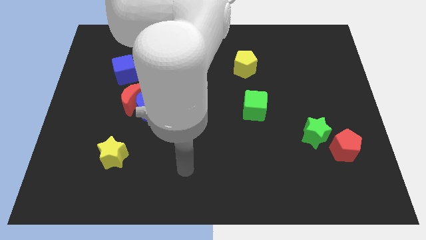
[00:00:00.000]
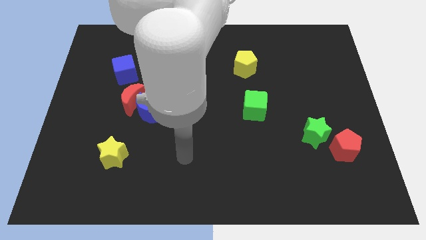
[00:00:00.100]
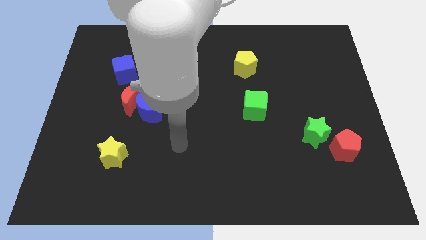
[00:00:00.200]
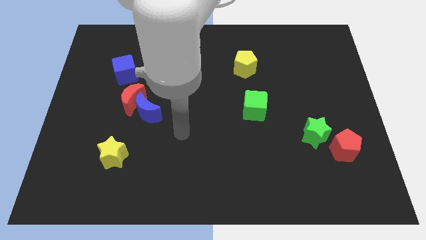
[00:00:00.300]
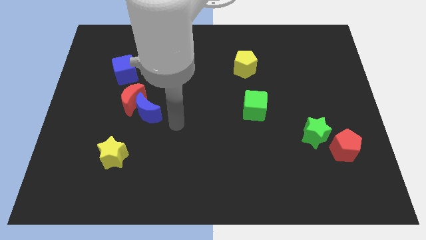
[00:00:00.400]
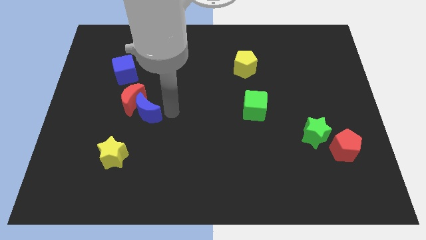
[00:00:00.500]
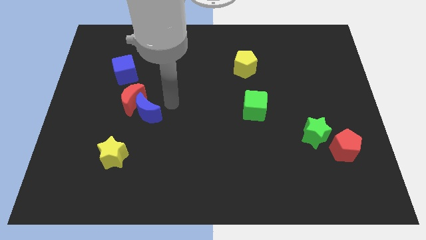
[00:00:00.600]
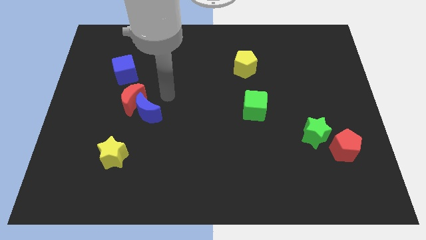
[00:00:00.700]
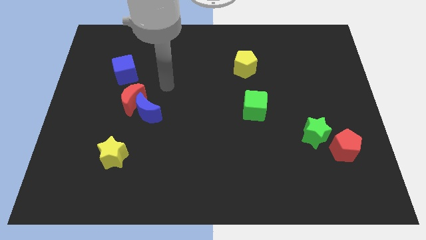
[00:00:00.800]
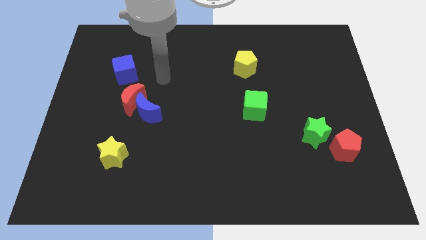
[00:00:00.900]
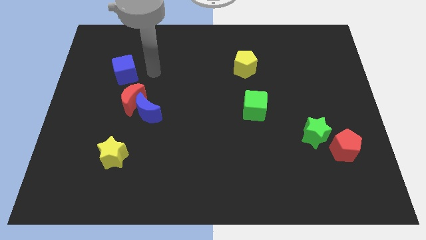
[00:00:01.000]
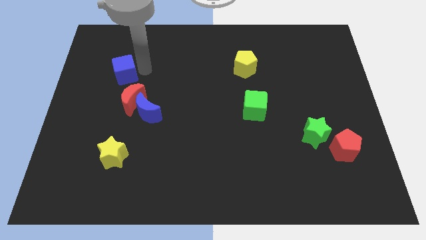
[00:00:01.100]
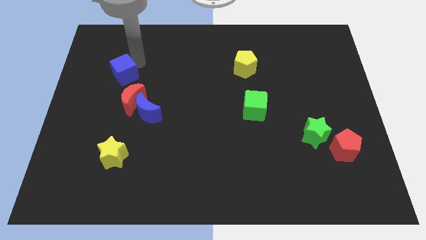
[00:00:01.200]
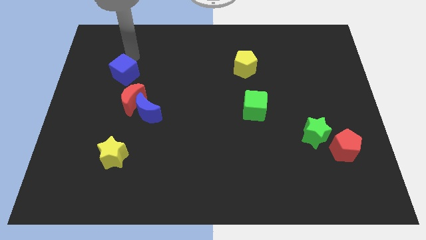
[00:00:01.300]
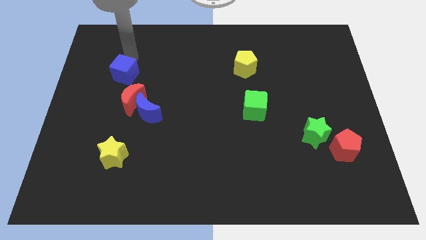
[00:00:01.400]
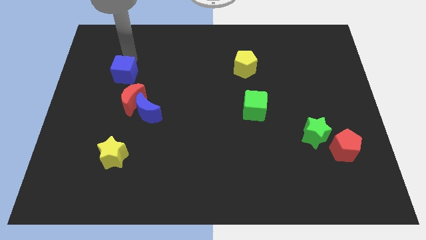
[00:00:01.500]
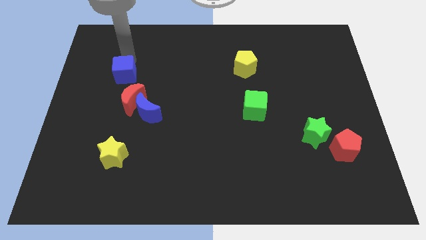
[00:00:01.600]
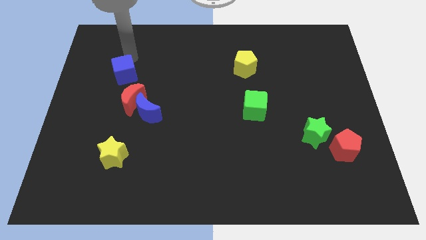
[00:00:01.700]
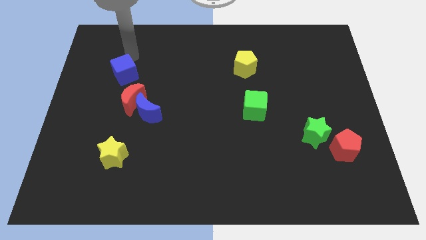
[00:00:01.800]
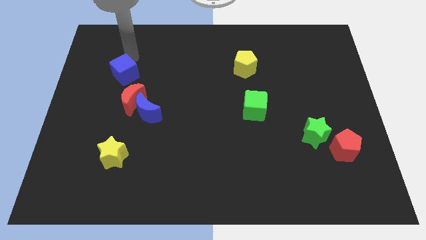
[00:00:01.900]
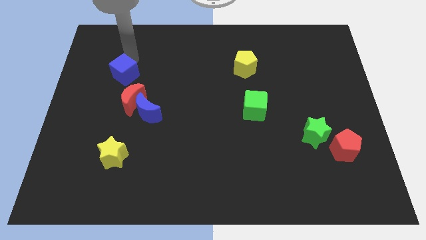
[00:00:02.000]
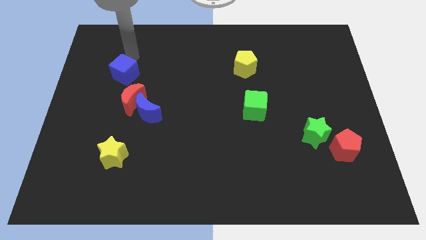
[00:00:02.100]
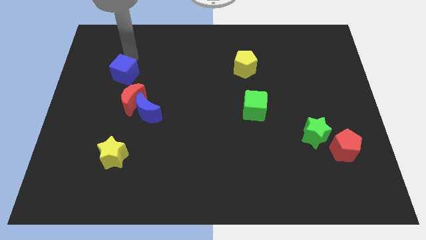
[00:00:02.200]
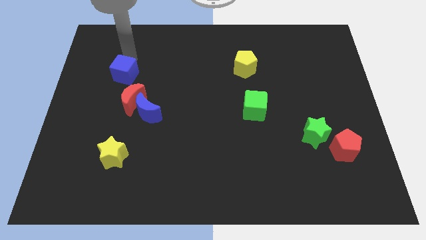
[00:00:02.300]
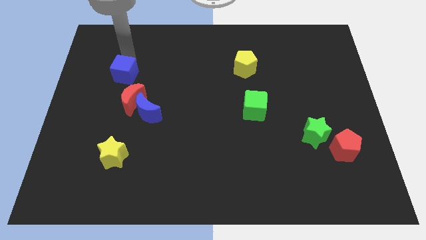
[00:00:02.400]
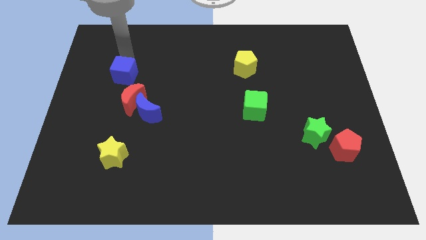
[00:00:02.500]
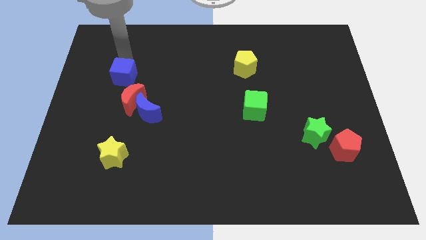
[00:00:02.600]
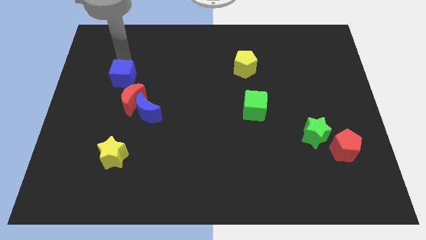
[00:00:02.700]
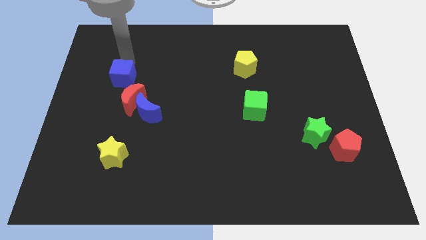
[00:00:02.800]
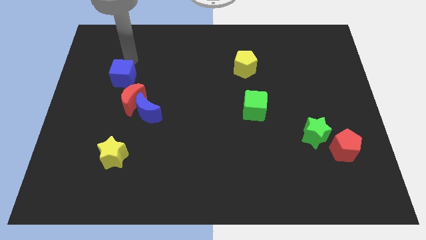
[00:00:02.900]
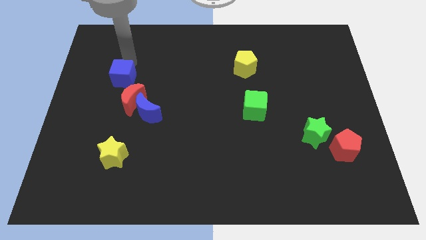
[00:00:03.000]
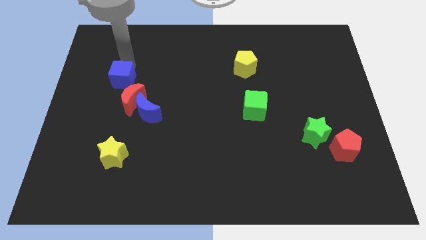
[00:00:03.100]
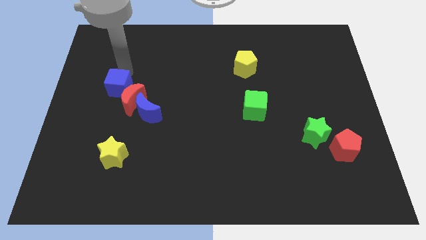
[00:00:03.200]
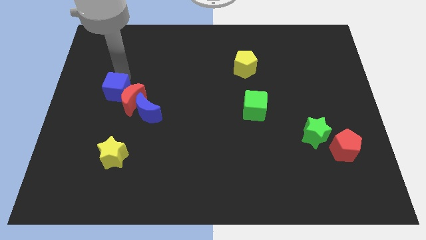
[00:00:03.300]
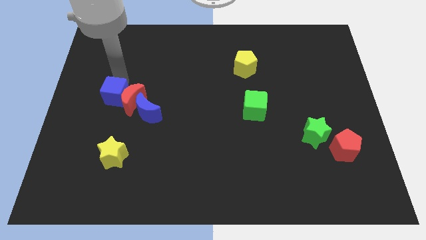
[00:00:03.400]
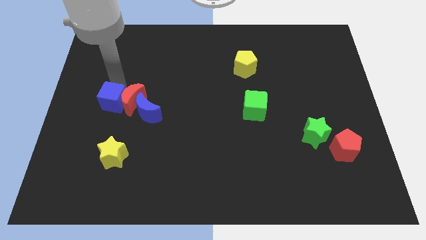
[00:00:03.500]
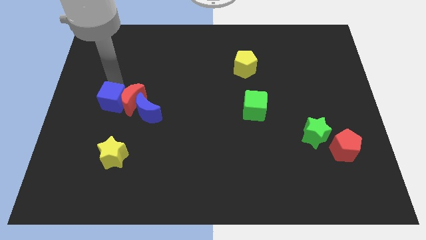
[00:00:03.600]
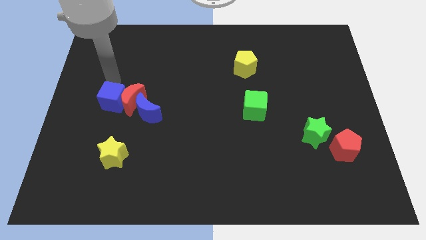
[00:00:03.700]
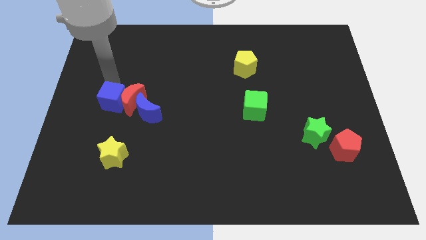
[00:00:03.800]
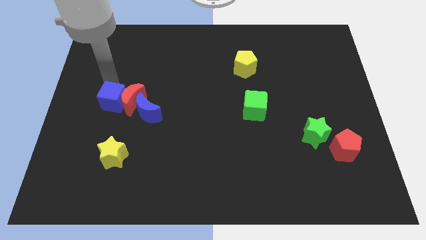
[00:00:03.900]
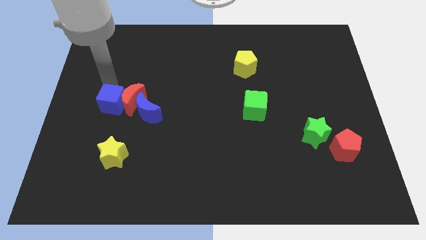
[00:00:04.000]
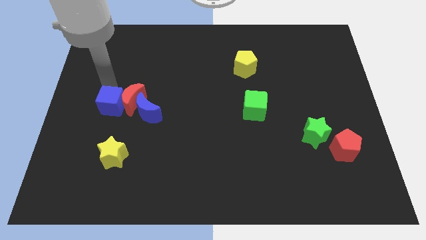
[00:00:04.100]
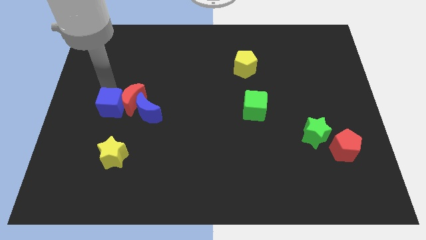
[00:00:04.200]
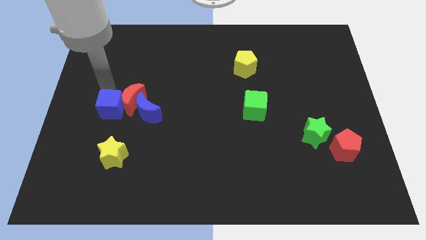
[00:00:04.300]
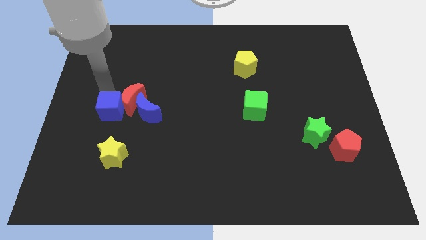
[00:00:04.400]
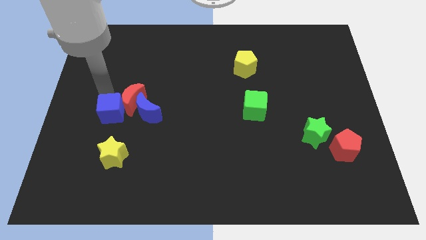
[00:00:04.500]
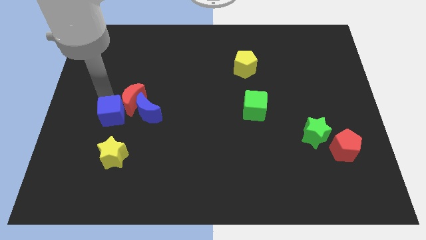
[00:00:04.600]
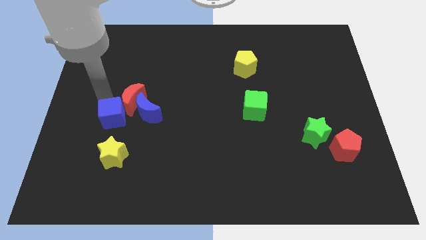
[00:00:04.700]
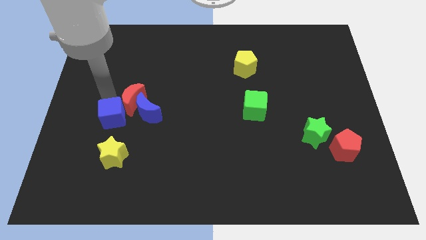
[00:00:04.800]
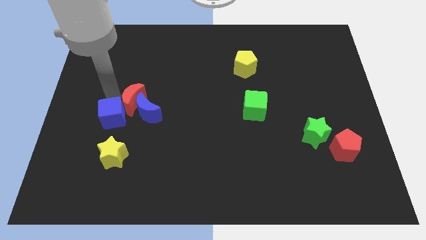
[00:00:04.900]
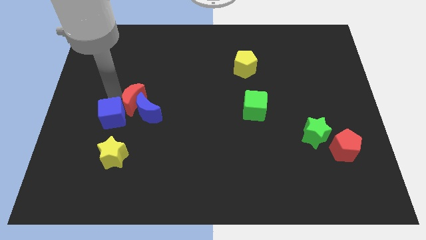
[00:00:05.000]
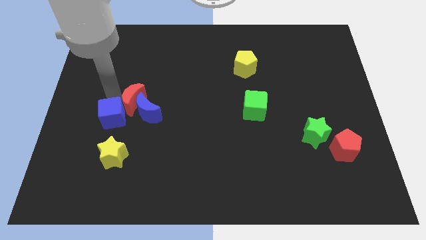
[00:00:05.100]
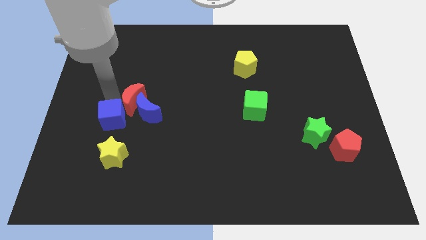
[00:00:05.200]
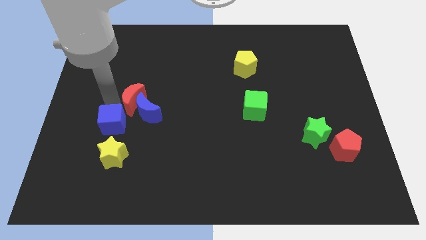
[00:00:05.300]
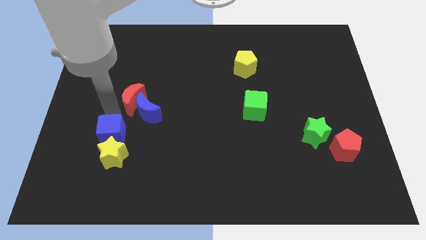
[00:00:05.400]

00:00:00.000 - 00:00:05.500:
put the blue cube close to the yellow star

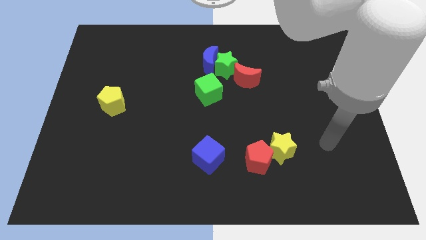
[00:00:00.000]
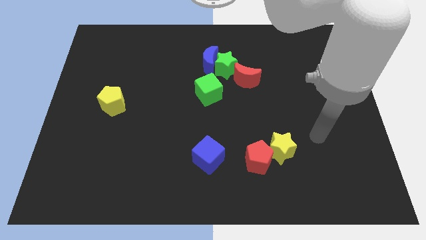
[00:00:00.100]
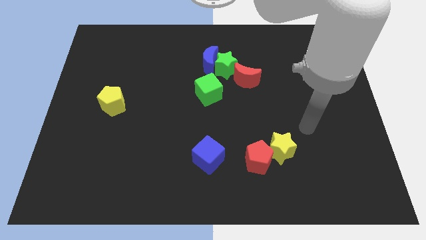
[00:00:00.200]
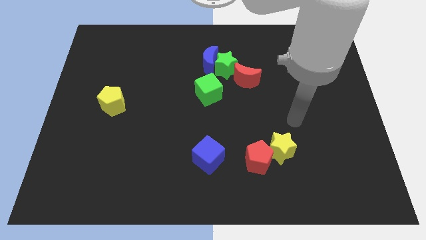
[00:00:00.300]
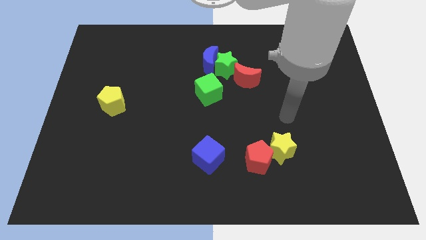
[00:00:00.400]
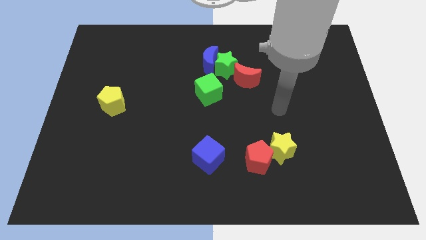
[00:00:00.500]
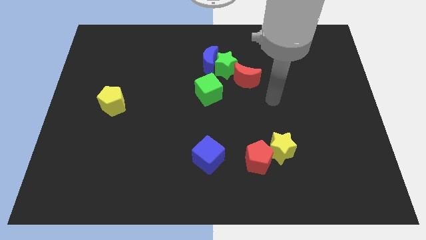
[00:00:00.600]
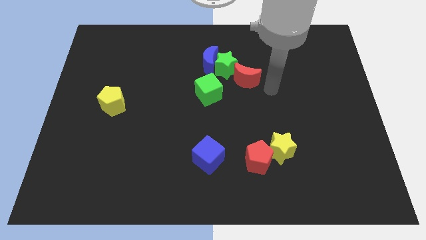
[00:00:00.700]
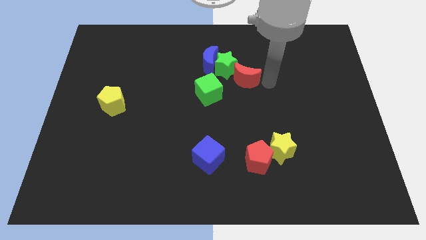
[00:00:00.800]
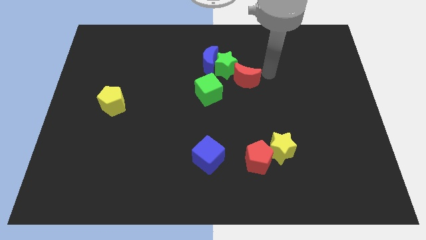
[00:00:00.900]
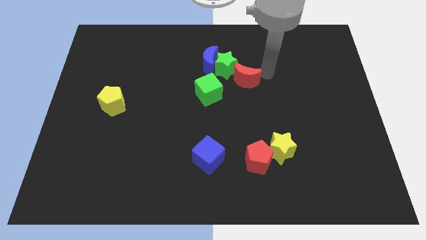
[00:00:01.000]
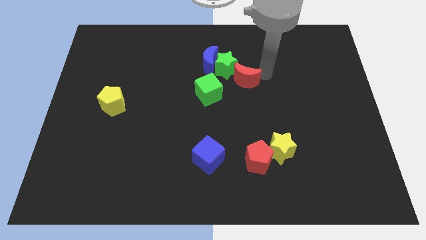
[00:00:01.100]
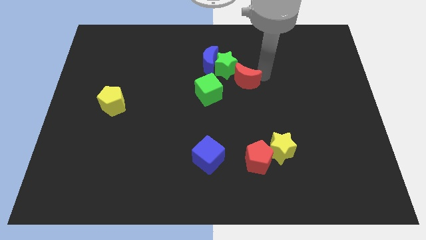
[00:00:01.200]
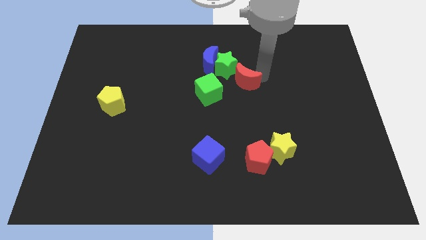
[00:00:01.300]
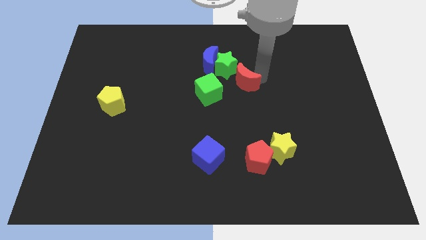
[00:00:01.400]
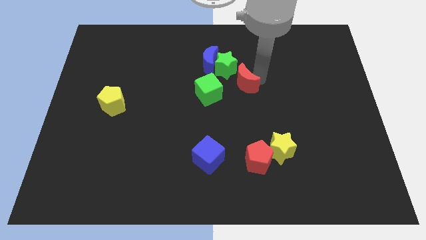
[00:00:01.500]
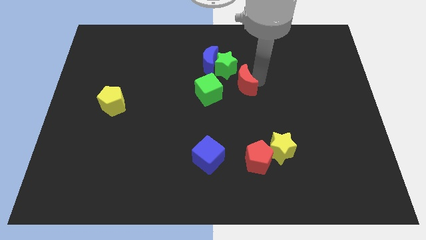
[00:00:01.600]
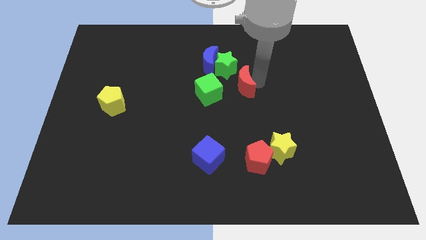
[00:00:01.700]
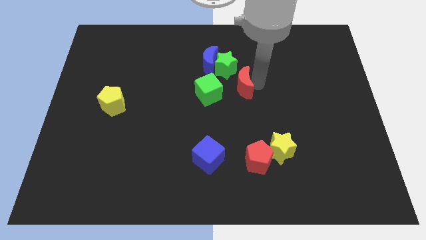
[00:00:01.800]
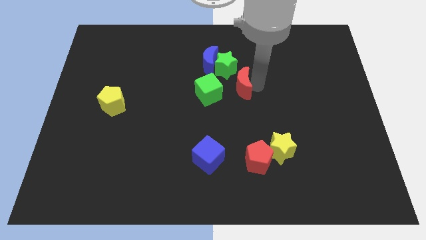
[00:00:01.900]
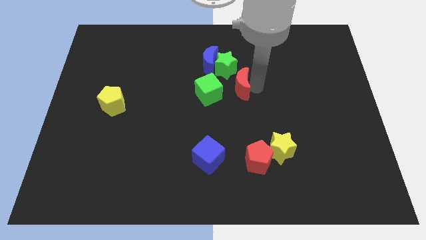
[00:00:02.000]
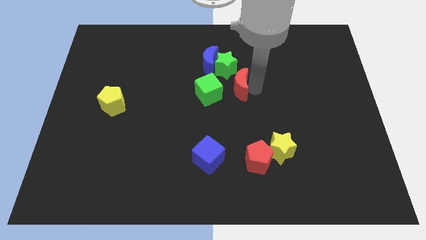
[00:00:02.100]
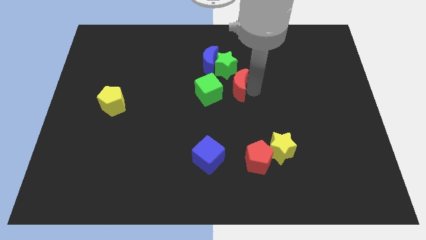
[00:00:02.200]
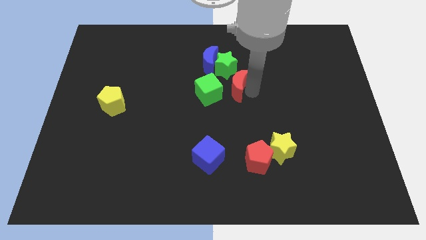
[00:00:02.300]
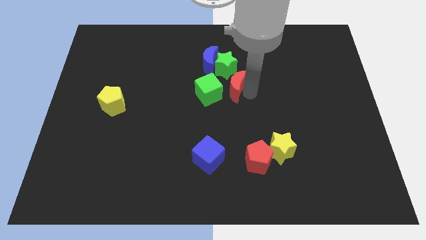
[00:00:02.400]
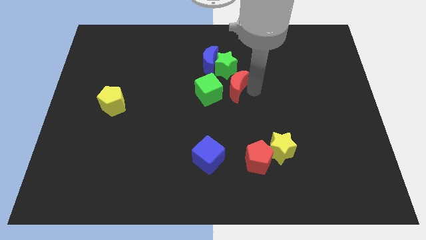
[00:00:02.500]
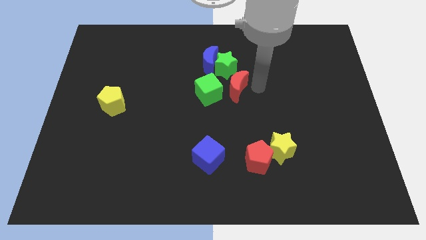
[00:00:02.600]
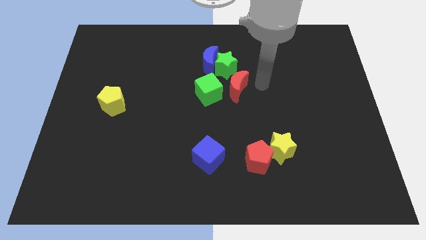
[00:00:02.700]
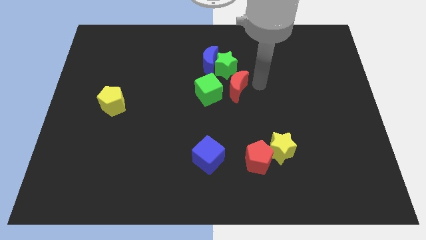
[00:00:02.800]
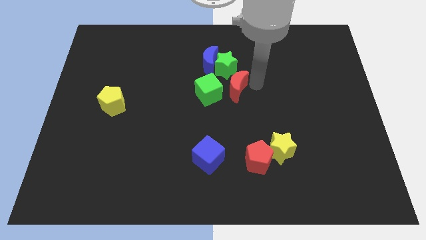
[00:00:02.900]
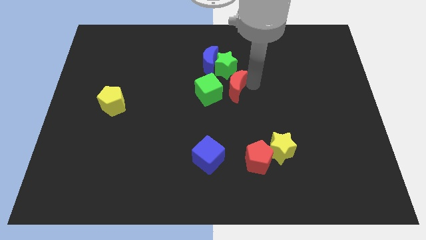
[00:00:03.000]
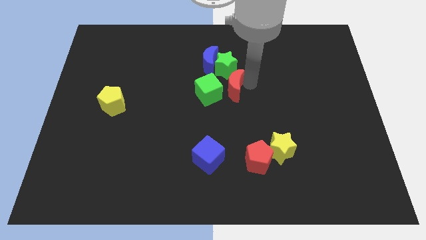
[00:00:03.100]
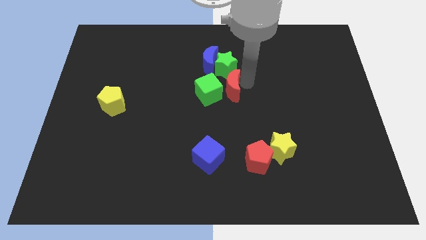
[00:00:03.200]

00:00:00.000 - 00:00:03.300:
slide the red moon next to the green cube
